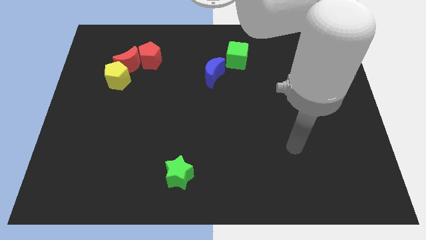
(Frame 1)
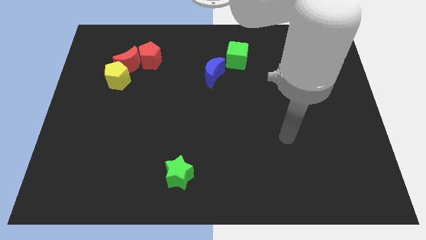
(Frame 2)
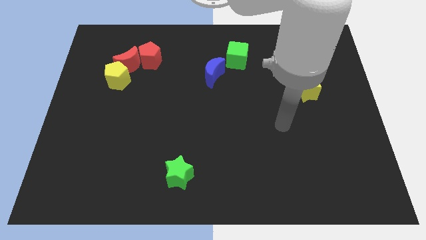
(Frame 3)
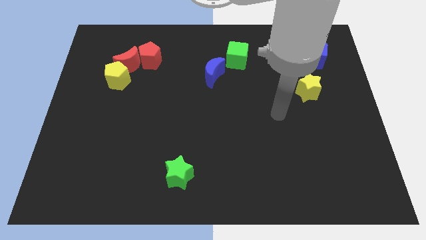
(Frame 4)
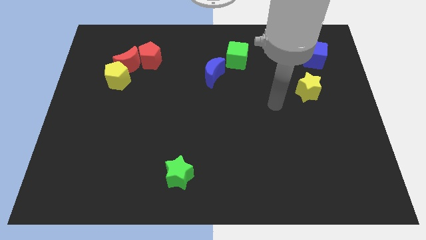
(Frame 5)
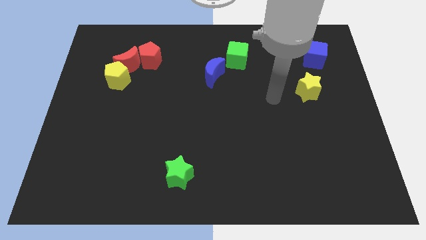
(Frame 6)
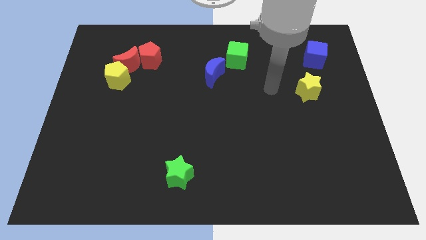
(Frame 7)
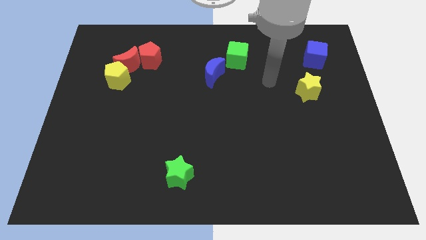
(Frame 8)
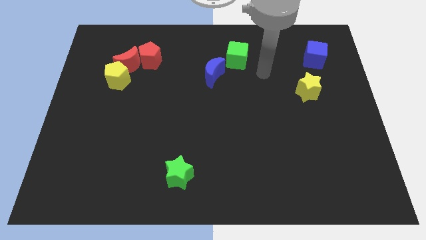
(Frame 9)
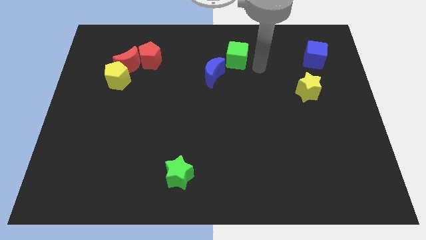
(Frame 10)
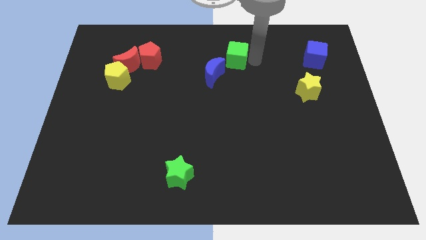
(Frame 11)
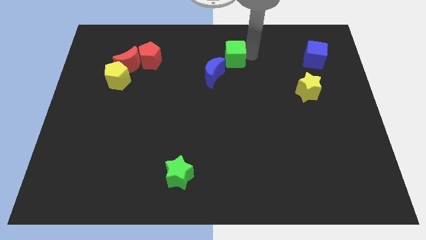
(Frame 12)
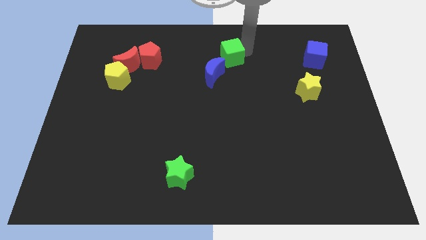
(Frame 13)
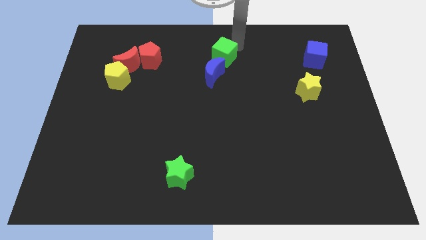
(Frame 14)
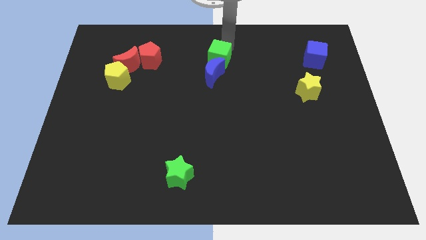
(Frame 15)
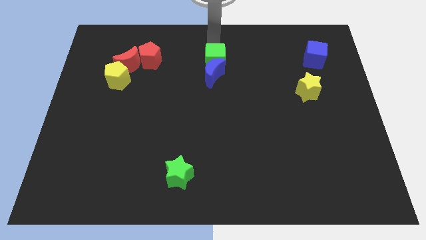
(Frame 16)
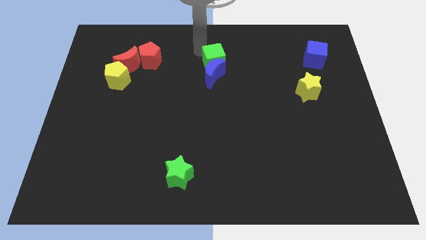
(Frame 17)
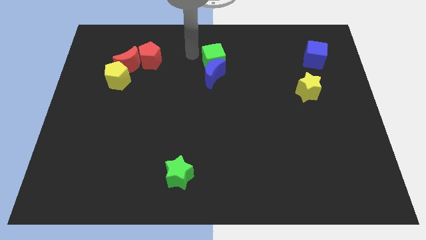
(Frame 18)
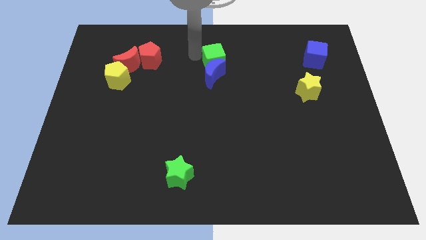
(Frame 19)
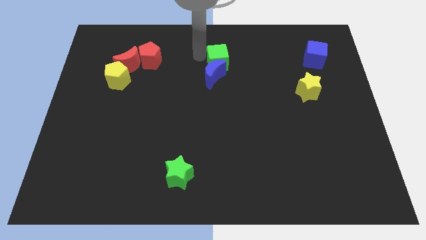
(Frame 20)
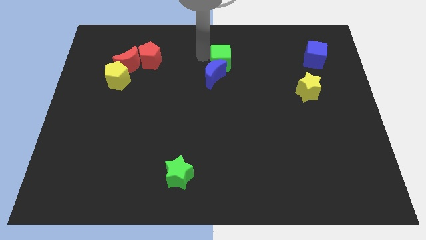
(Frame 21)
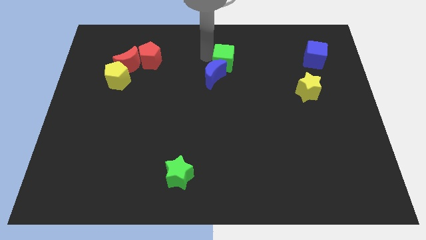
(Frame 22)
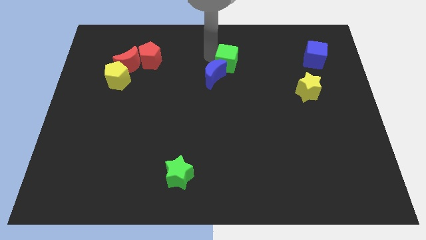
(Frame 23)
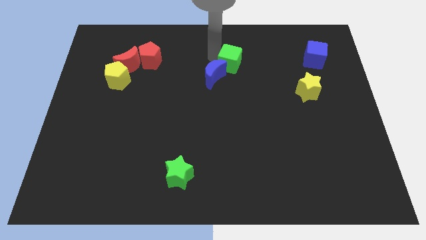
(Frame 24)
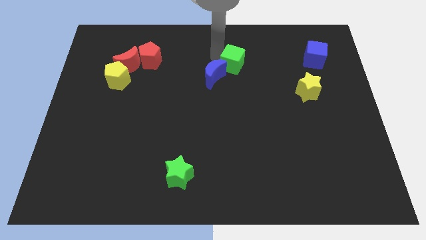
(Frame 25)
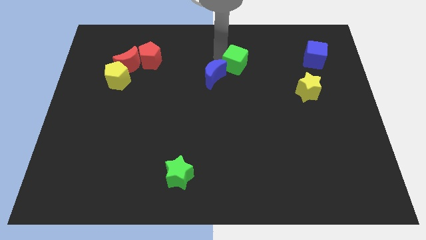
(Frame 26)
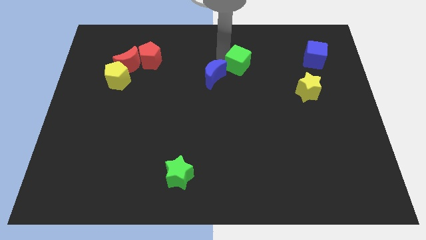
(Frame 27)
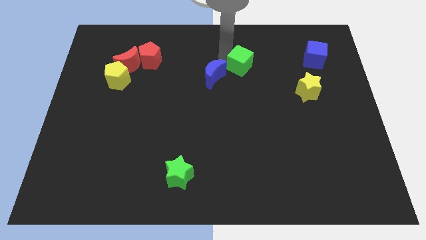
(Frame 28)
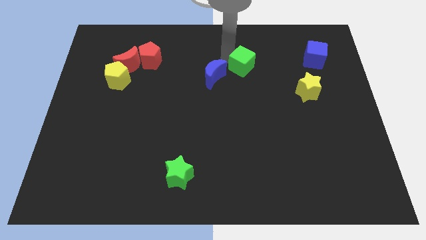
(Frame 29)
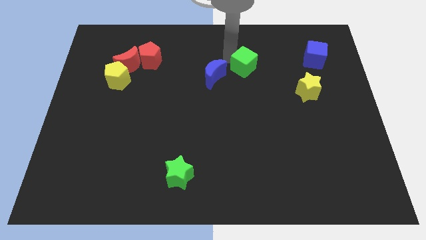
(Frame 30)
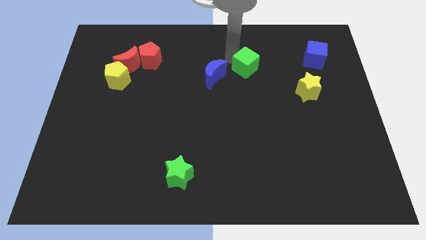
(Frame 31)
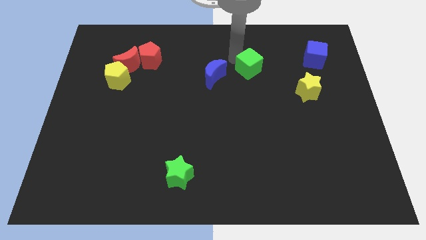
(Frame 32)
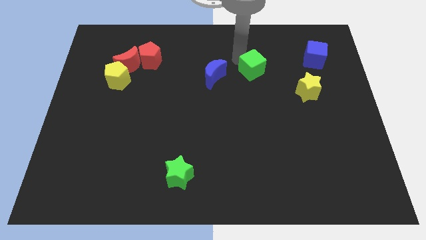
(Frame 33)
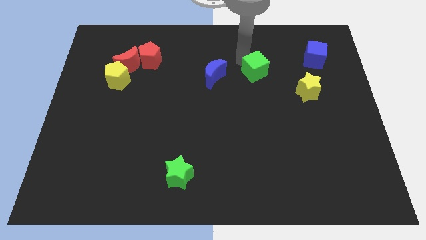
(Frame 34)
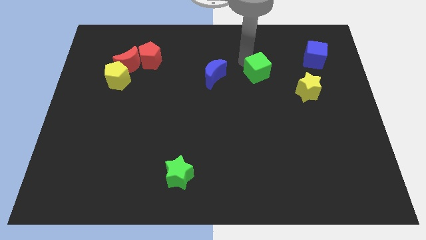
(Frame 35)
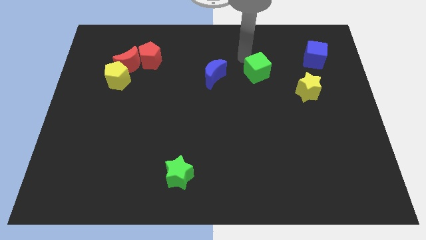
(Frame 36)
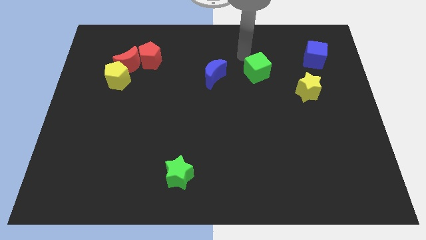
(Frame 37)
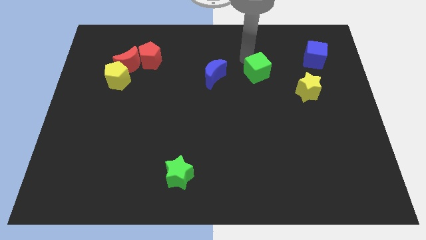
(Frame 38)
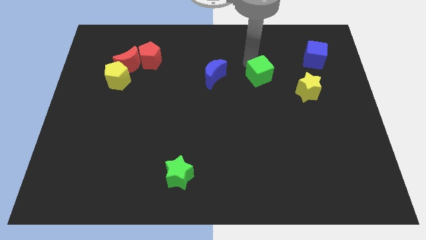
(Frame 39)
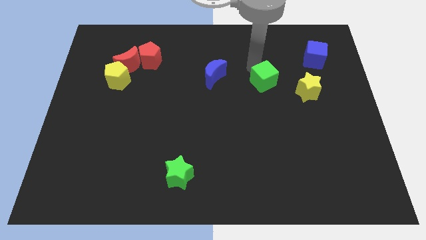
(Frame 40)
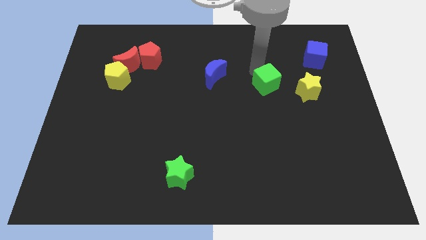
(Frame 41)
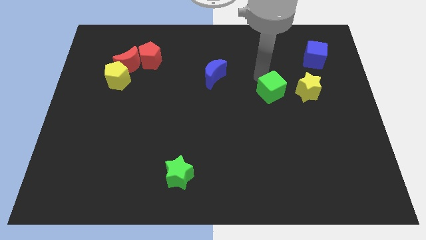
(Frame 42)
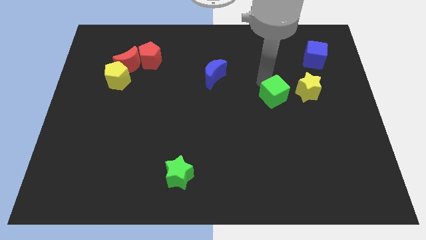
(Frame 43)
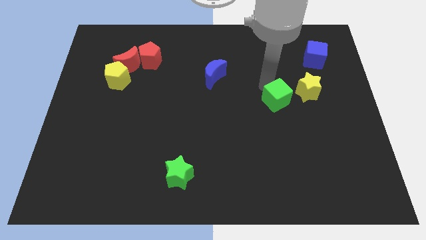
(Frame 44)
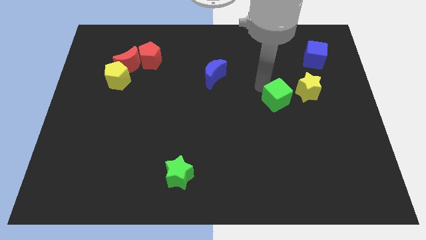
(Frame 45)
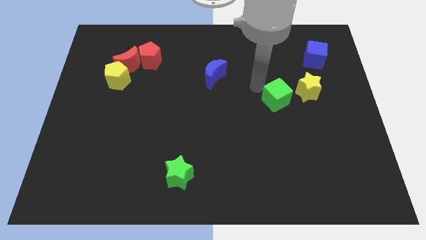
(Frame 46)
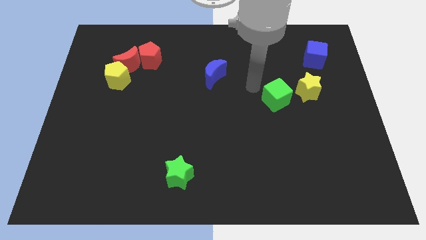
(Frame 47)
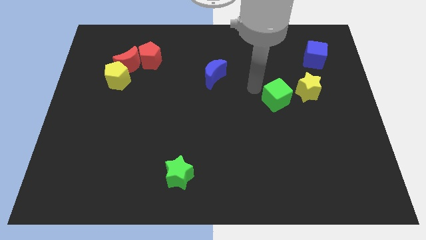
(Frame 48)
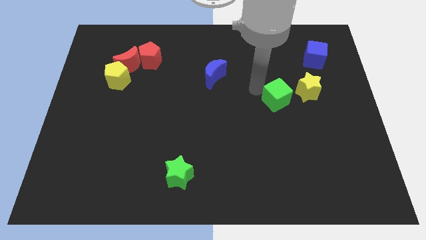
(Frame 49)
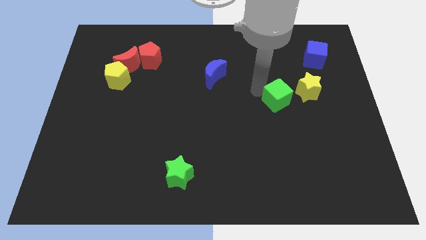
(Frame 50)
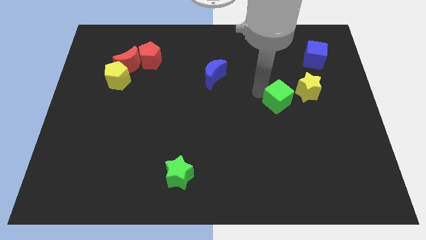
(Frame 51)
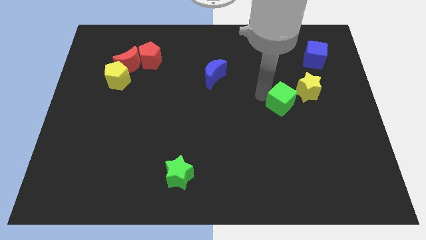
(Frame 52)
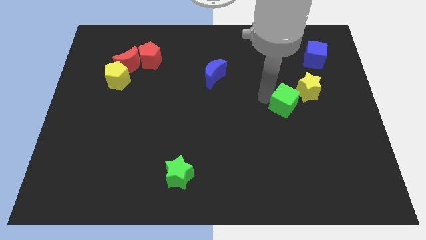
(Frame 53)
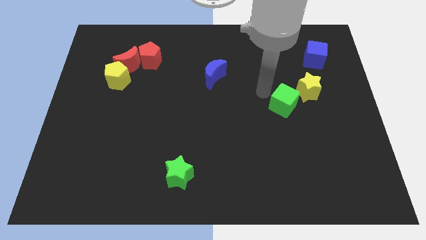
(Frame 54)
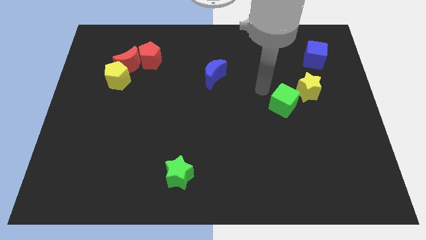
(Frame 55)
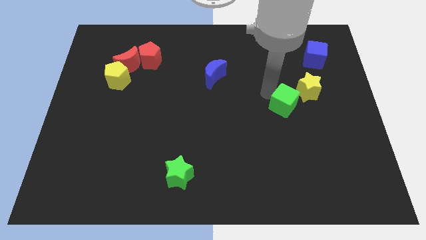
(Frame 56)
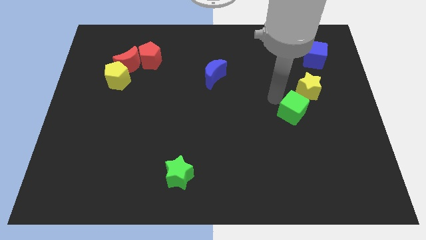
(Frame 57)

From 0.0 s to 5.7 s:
move the green cube to the bottom side of the yellow star

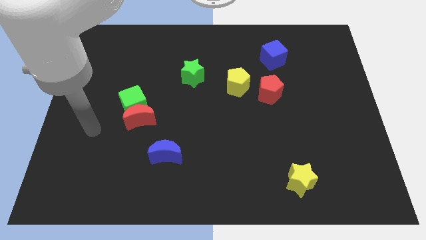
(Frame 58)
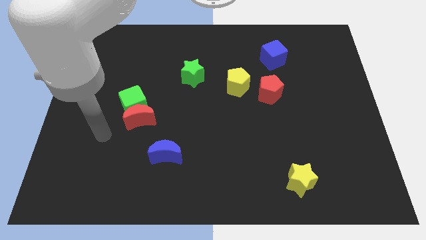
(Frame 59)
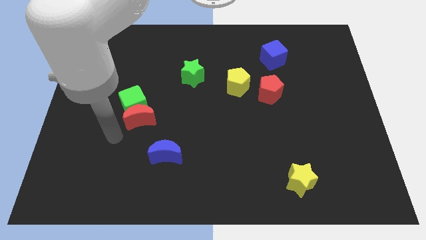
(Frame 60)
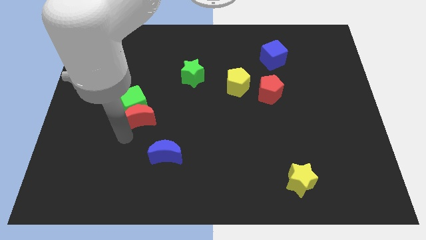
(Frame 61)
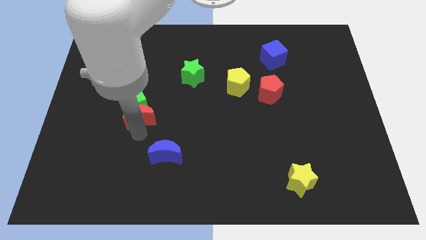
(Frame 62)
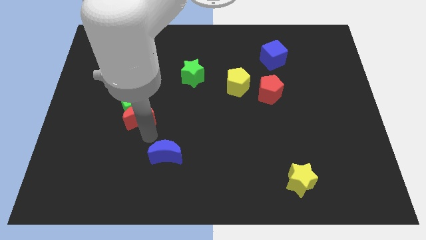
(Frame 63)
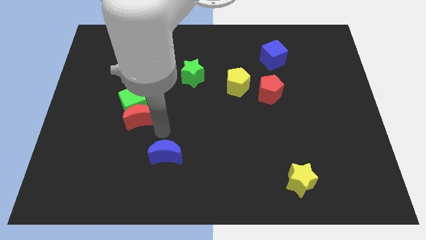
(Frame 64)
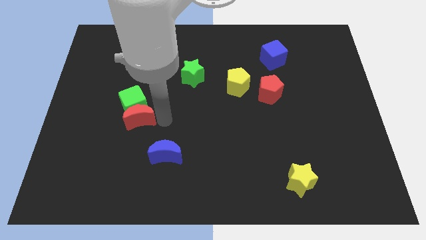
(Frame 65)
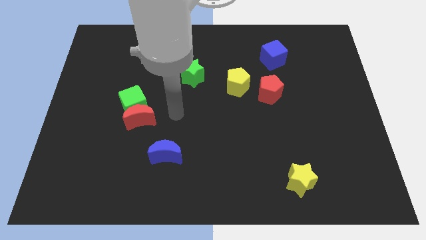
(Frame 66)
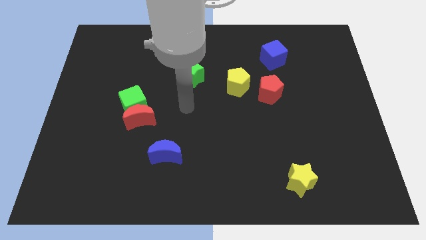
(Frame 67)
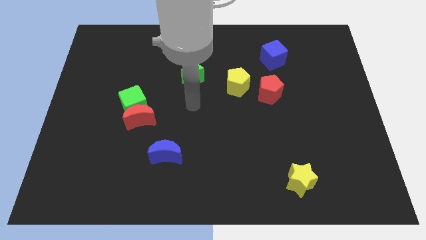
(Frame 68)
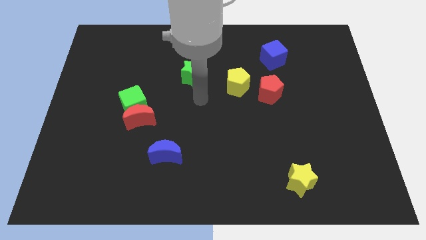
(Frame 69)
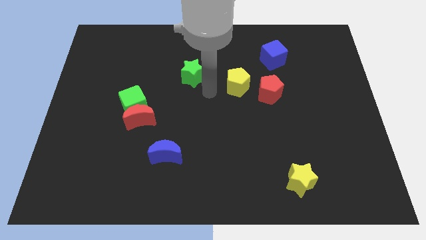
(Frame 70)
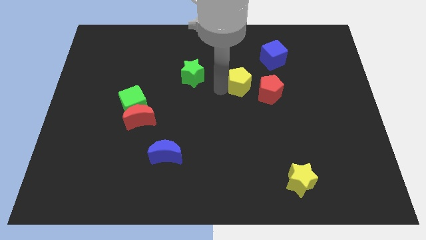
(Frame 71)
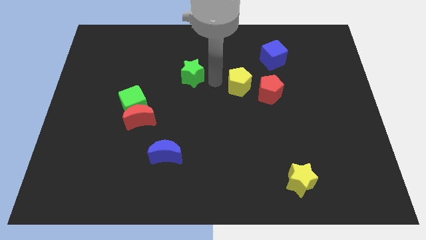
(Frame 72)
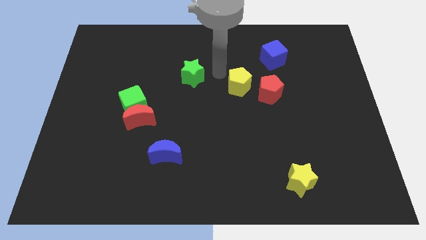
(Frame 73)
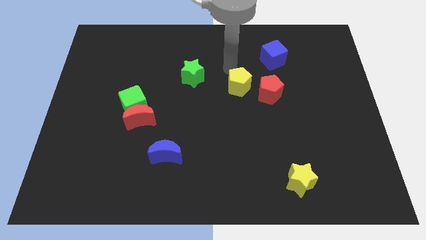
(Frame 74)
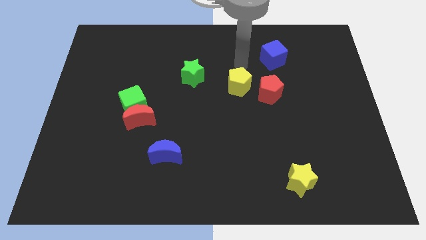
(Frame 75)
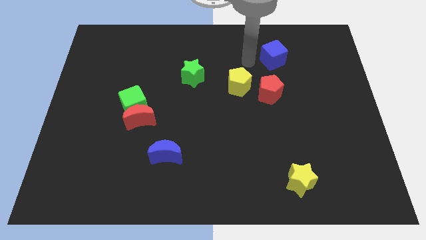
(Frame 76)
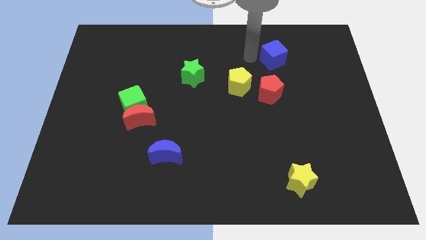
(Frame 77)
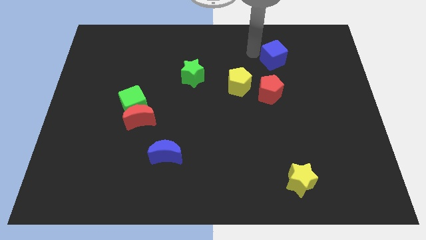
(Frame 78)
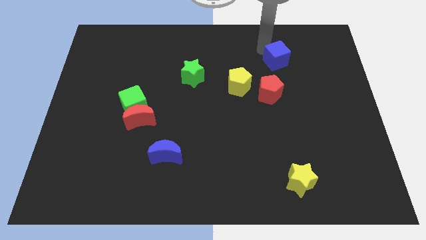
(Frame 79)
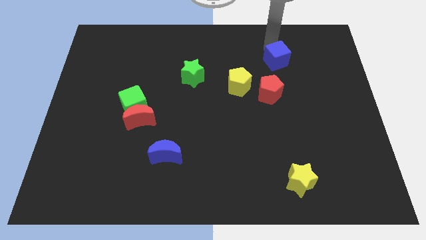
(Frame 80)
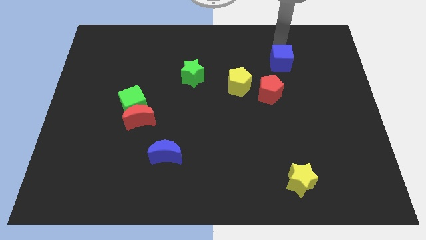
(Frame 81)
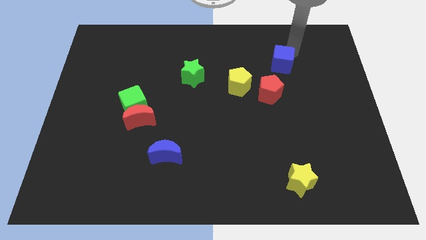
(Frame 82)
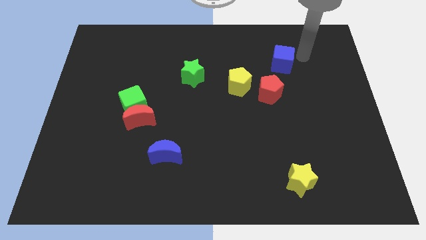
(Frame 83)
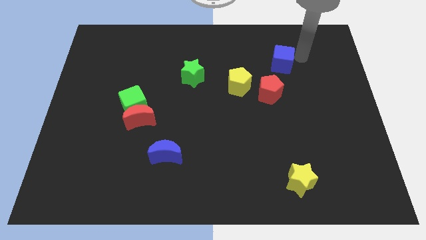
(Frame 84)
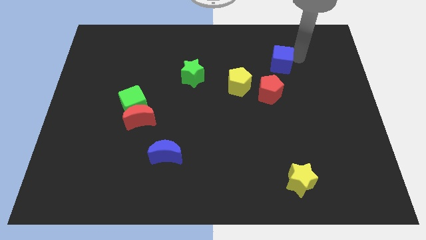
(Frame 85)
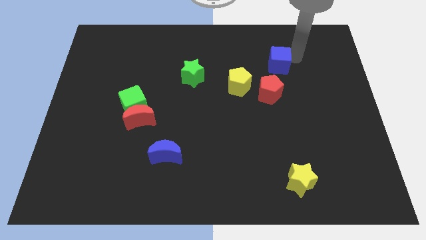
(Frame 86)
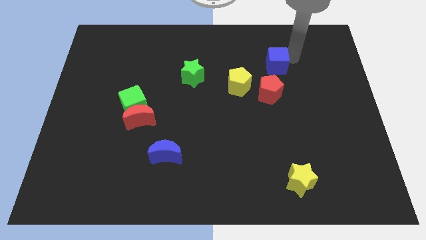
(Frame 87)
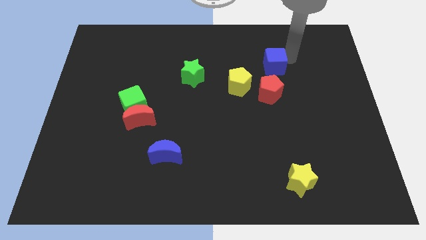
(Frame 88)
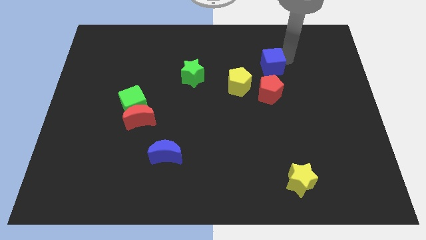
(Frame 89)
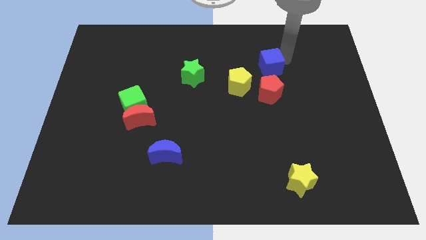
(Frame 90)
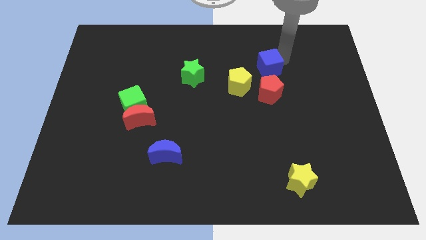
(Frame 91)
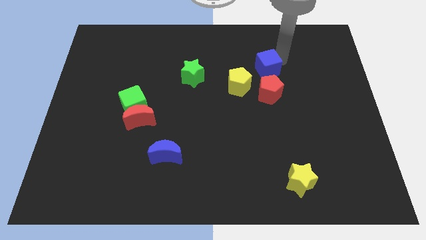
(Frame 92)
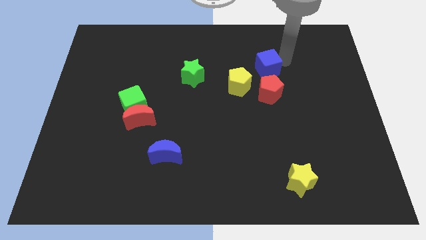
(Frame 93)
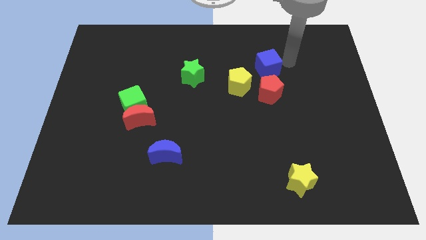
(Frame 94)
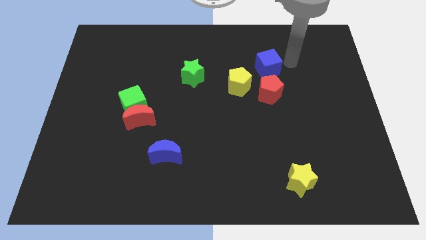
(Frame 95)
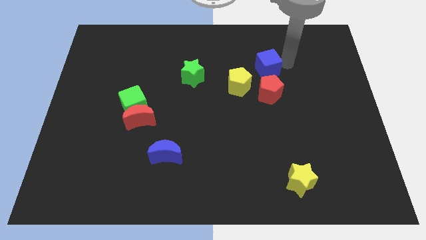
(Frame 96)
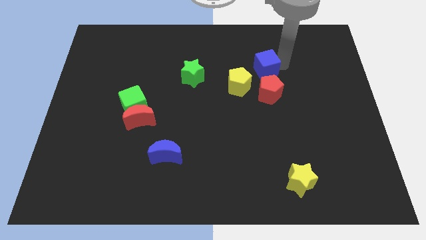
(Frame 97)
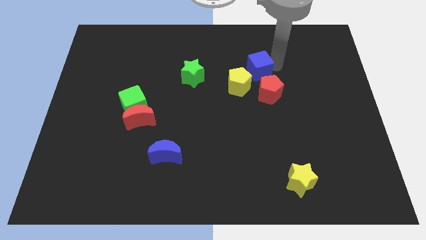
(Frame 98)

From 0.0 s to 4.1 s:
move the blue cube to the top left of the red pentagon
